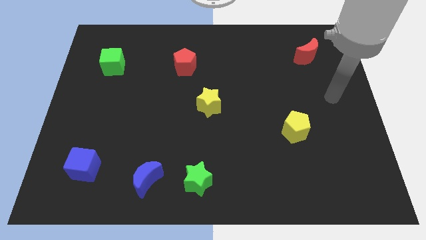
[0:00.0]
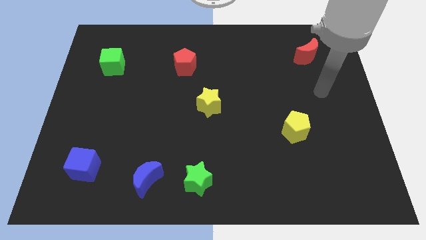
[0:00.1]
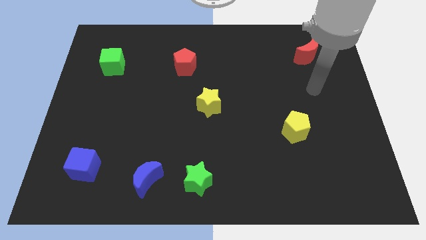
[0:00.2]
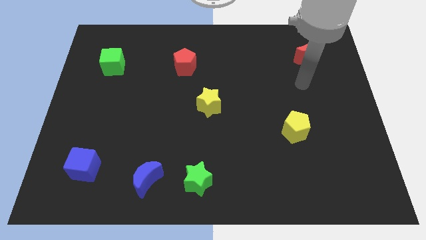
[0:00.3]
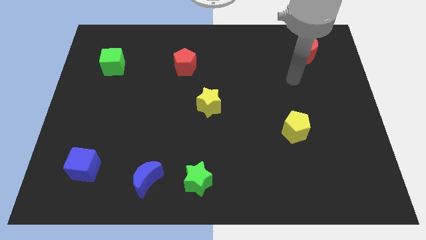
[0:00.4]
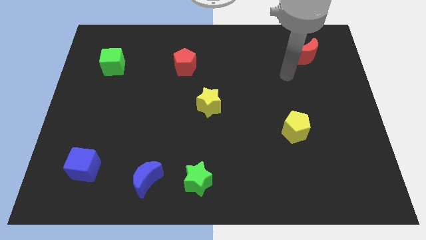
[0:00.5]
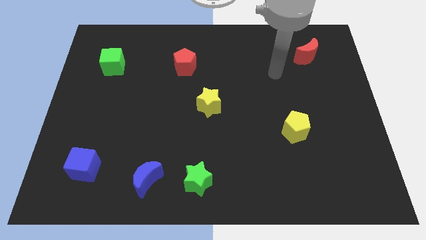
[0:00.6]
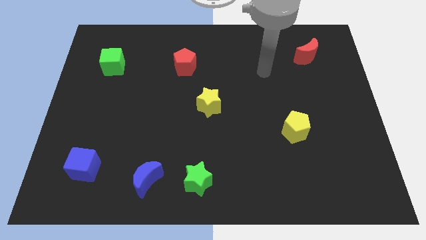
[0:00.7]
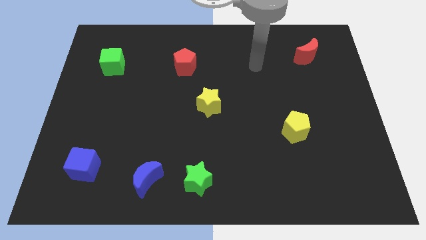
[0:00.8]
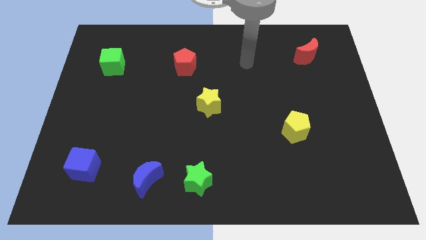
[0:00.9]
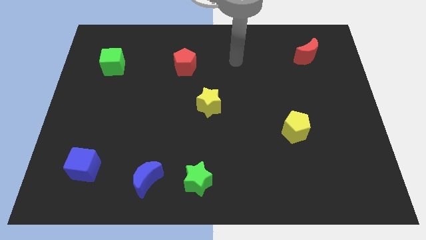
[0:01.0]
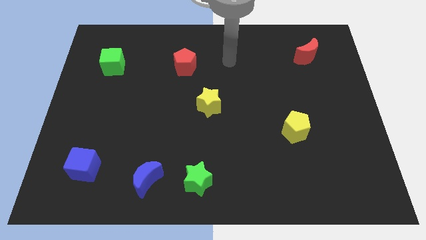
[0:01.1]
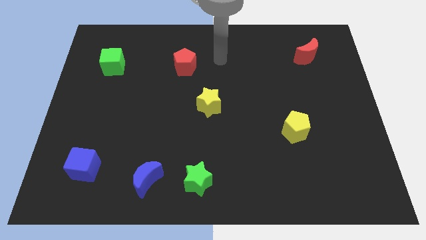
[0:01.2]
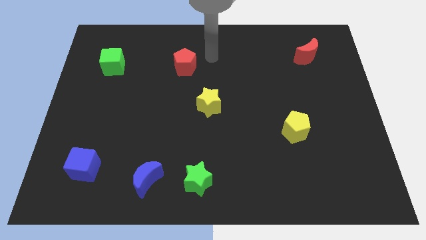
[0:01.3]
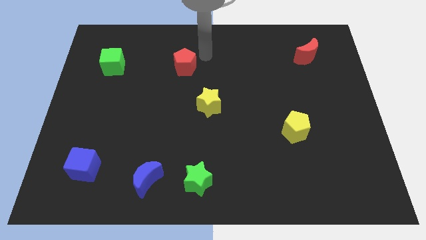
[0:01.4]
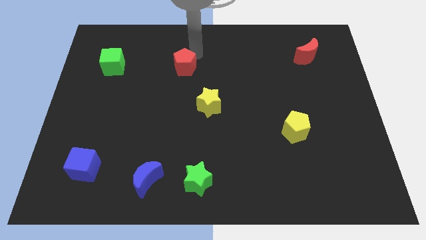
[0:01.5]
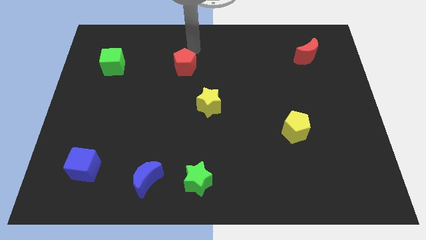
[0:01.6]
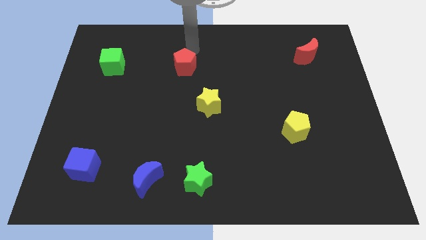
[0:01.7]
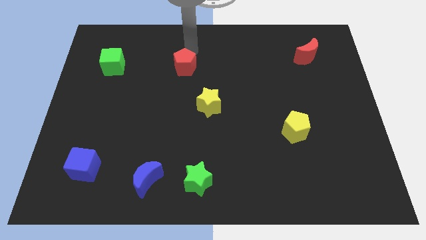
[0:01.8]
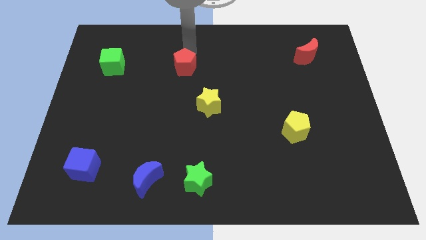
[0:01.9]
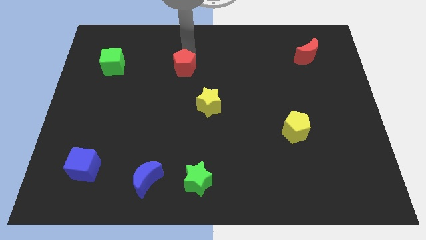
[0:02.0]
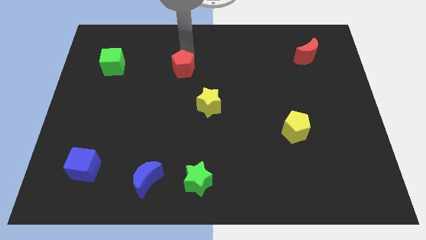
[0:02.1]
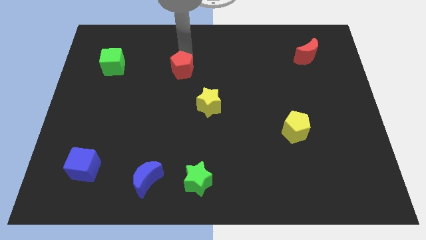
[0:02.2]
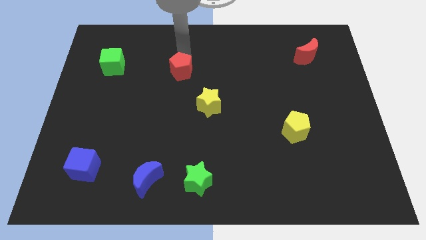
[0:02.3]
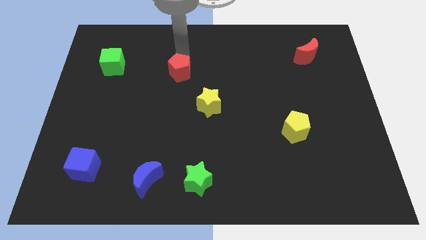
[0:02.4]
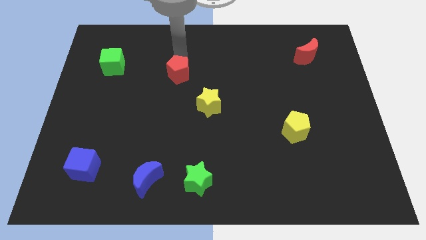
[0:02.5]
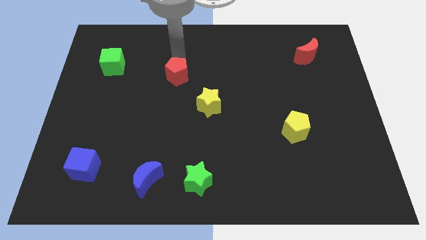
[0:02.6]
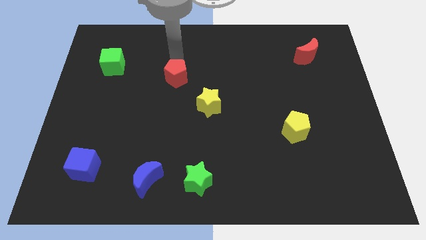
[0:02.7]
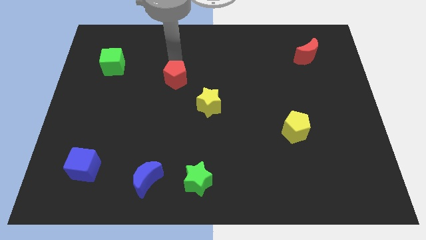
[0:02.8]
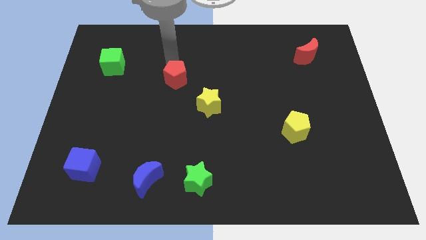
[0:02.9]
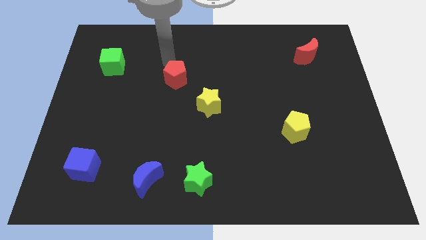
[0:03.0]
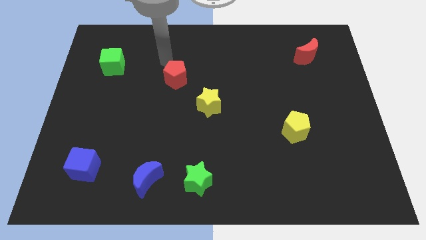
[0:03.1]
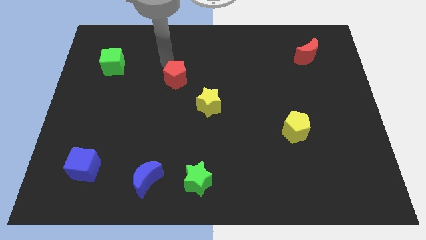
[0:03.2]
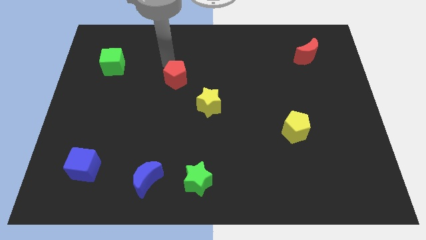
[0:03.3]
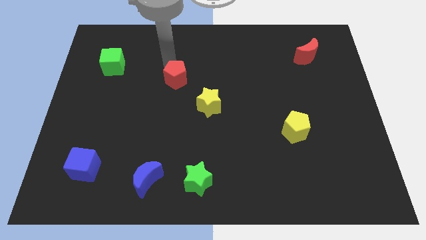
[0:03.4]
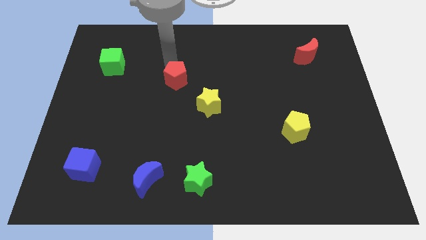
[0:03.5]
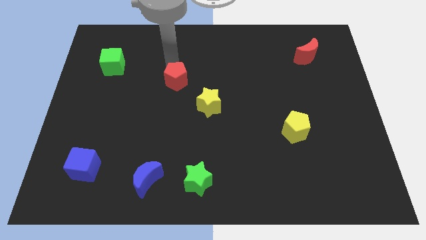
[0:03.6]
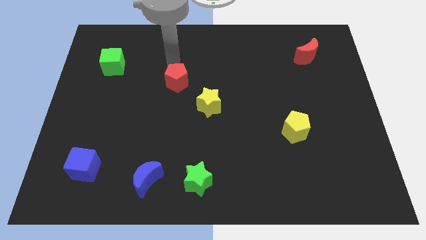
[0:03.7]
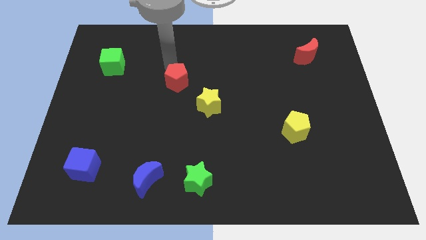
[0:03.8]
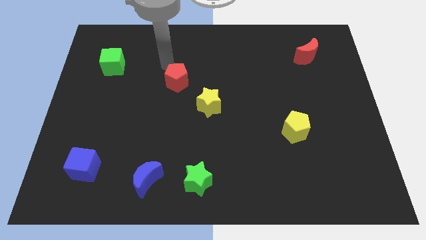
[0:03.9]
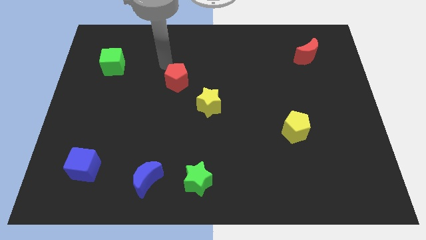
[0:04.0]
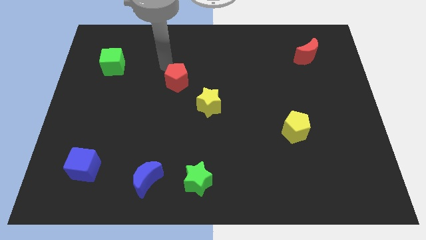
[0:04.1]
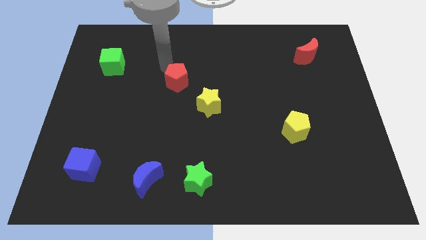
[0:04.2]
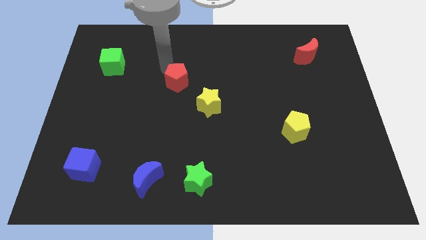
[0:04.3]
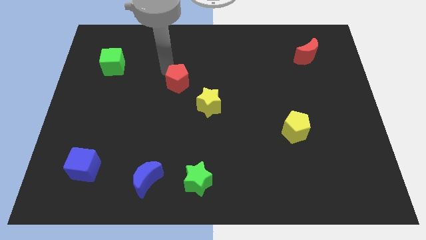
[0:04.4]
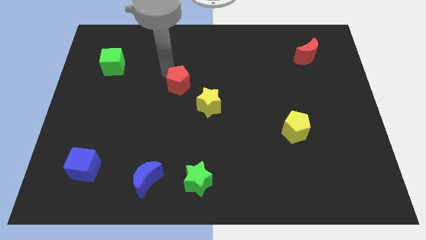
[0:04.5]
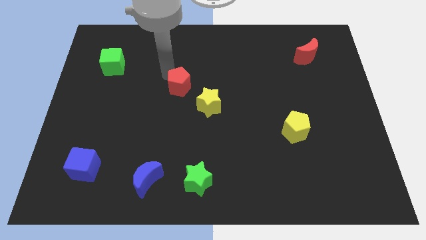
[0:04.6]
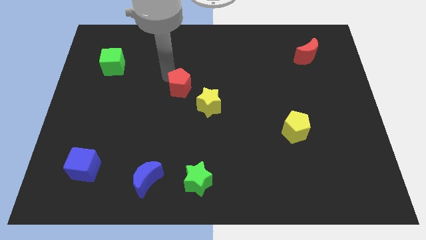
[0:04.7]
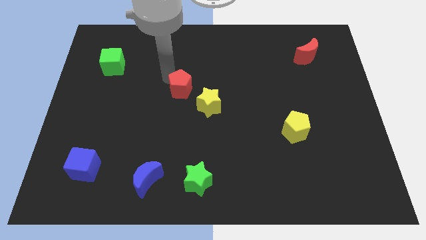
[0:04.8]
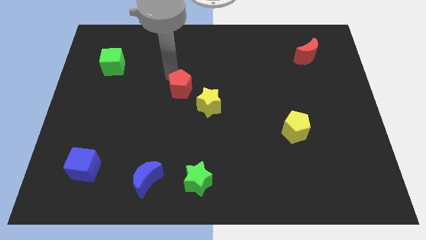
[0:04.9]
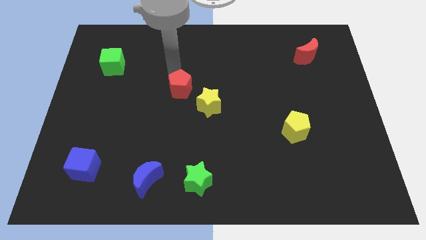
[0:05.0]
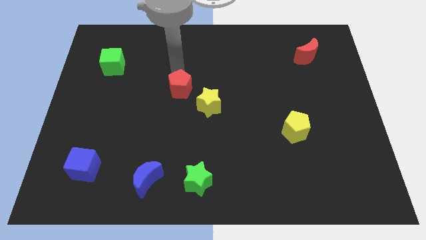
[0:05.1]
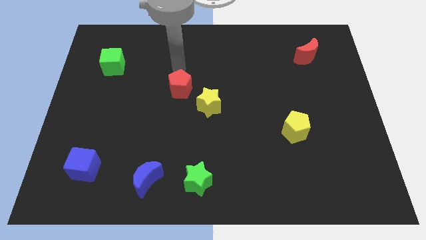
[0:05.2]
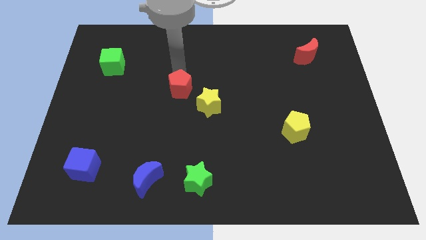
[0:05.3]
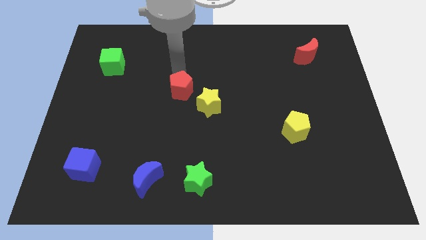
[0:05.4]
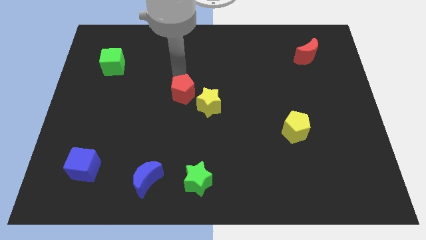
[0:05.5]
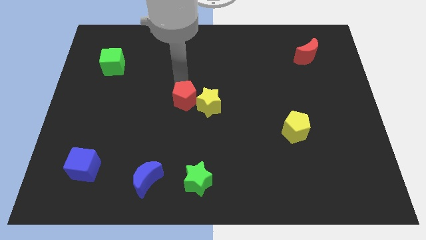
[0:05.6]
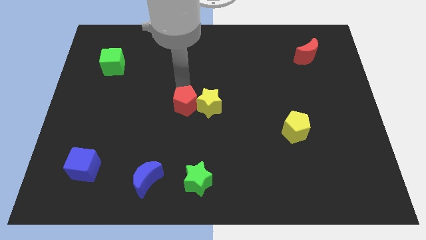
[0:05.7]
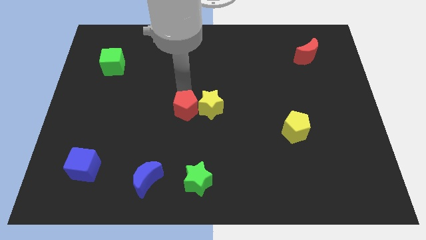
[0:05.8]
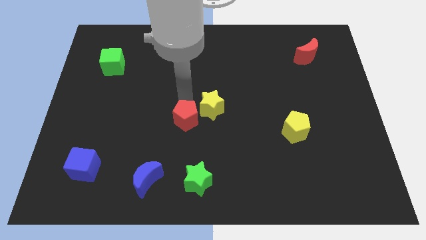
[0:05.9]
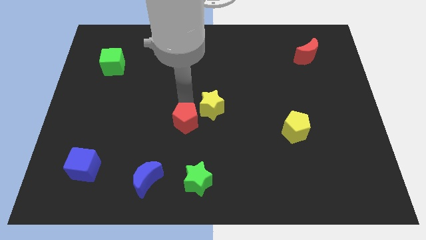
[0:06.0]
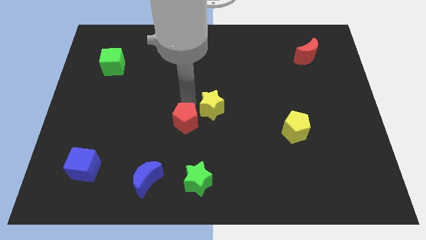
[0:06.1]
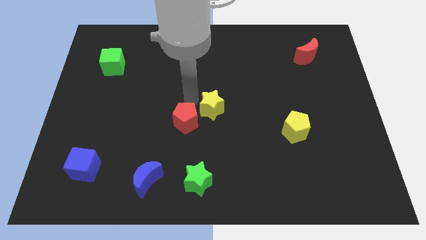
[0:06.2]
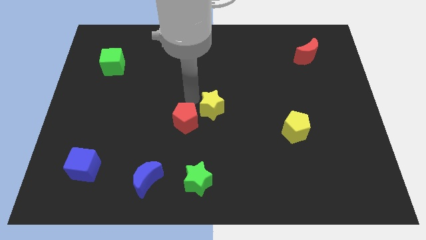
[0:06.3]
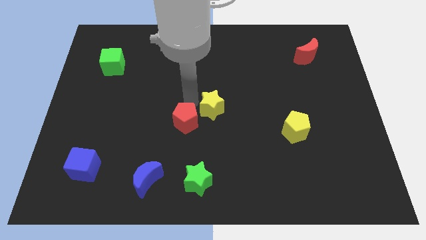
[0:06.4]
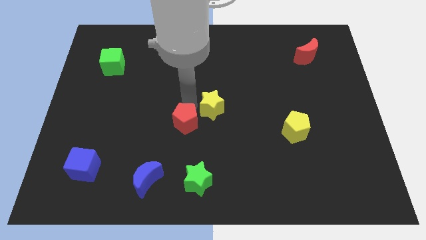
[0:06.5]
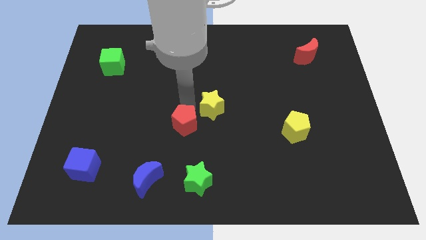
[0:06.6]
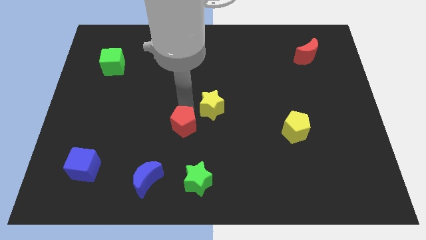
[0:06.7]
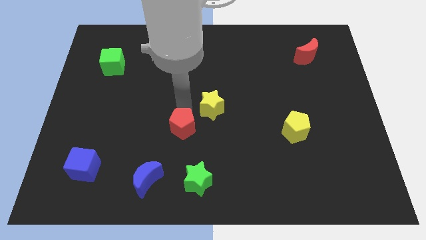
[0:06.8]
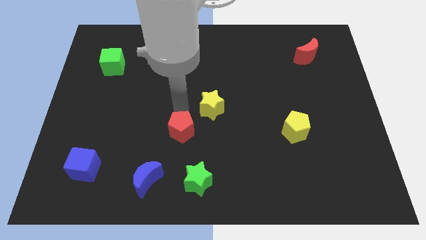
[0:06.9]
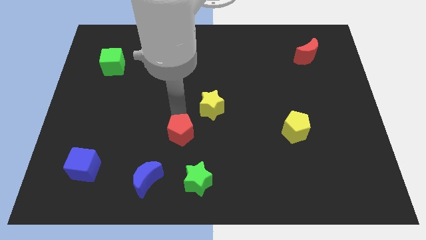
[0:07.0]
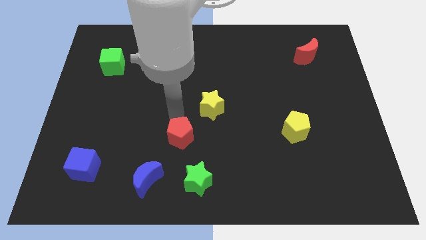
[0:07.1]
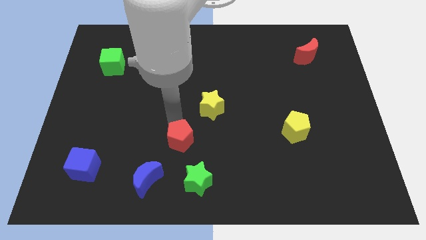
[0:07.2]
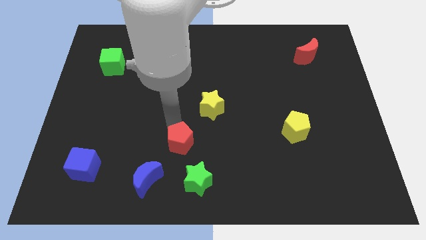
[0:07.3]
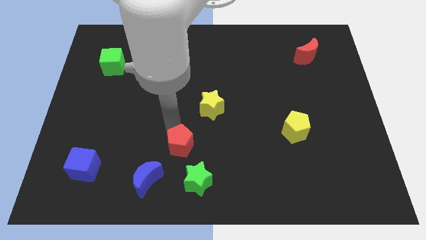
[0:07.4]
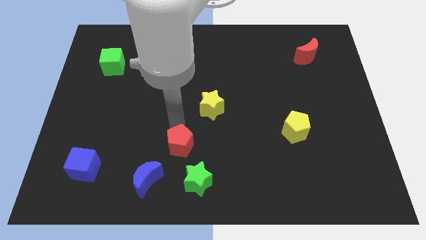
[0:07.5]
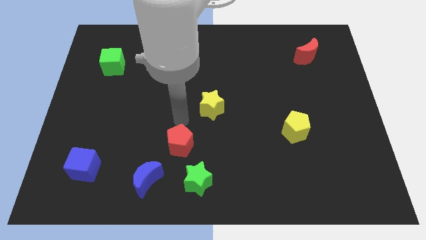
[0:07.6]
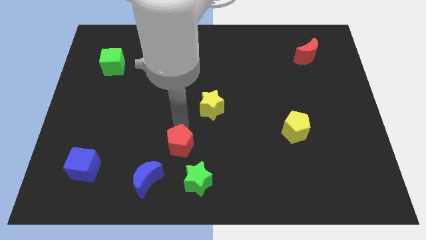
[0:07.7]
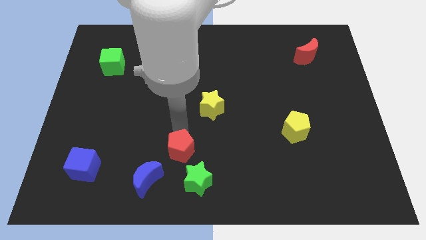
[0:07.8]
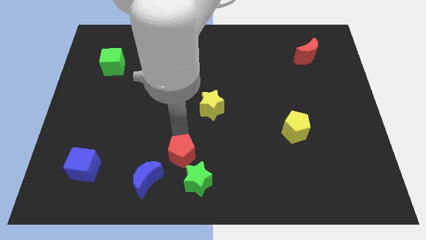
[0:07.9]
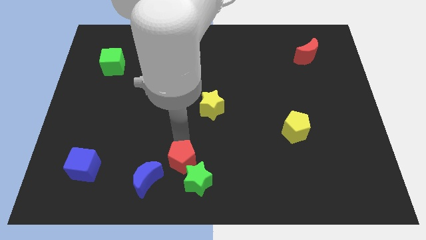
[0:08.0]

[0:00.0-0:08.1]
push the red pentagon to the green star
